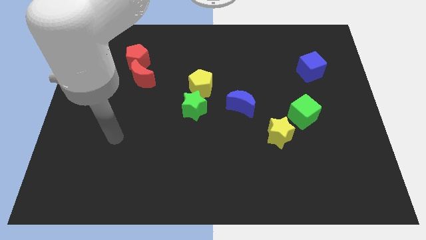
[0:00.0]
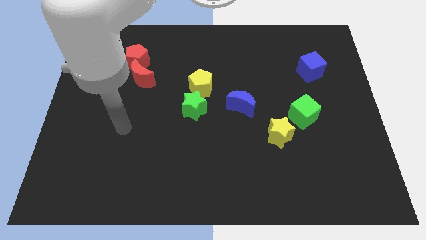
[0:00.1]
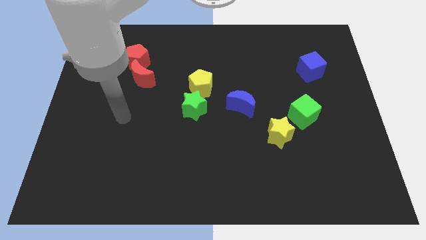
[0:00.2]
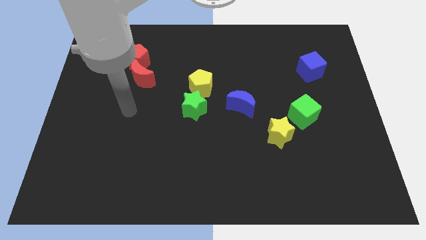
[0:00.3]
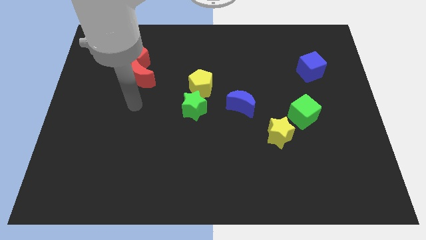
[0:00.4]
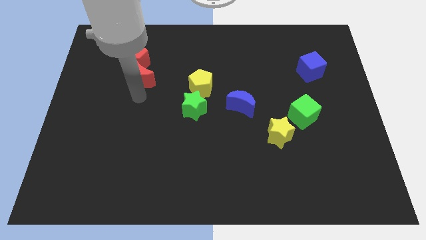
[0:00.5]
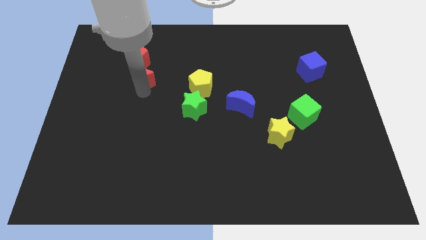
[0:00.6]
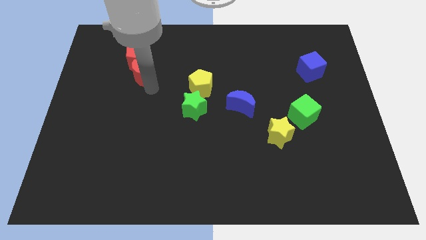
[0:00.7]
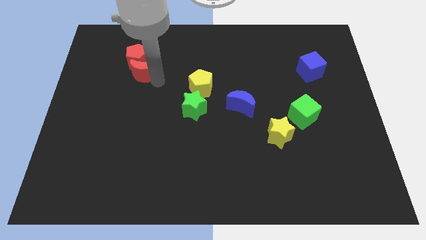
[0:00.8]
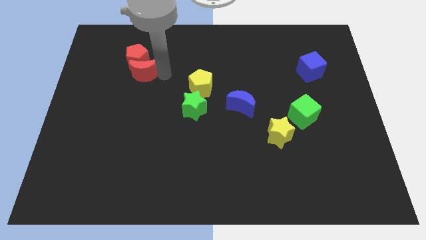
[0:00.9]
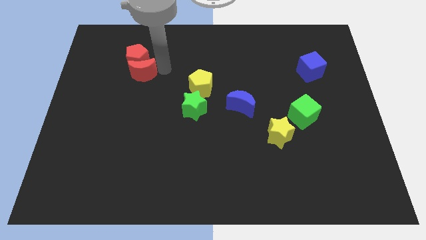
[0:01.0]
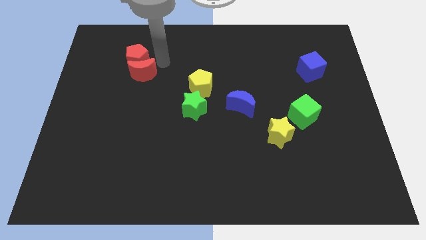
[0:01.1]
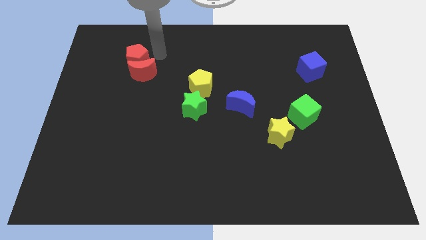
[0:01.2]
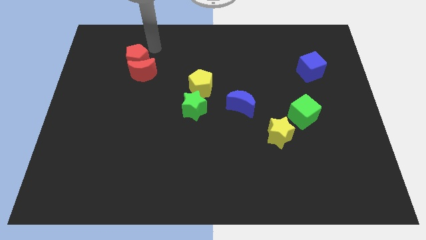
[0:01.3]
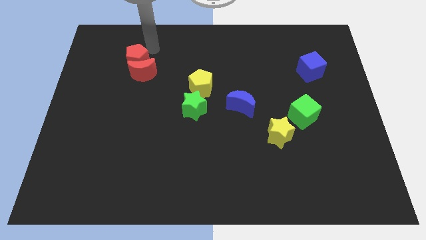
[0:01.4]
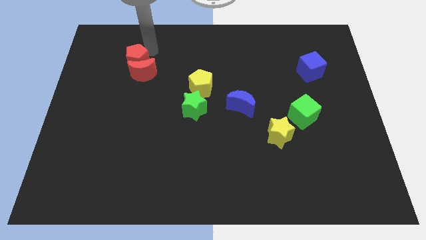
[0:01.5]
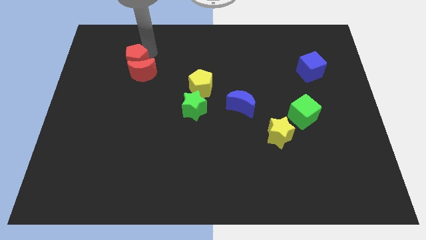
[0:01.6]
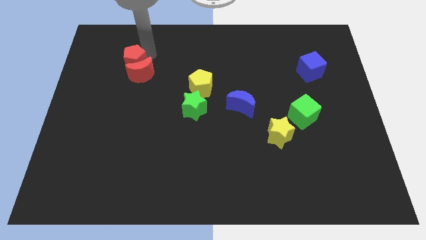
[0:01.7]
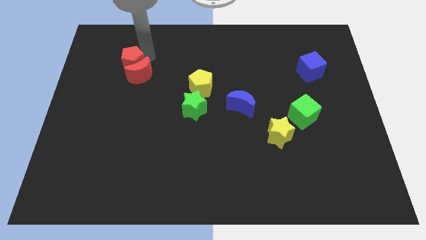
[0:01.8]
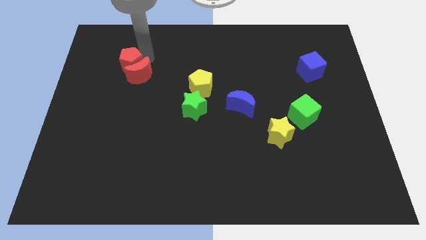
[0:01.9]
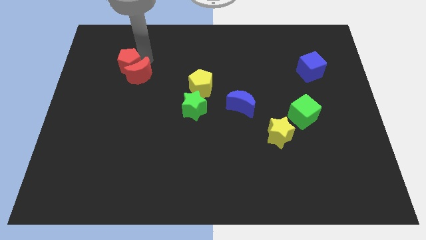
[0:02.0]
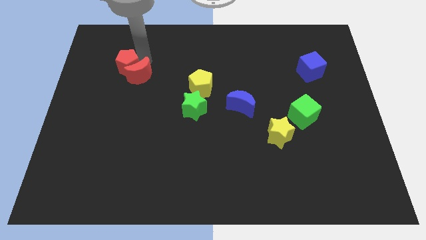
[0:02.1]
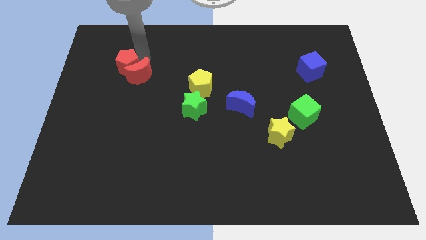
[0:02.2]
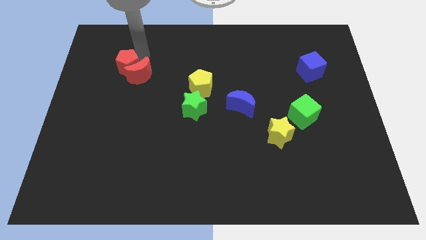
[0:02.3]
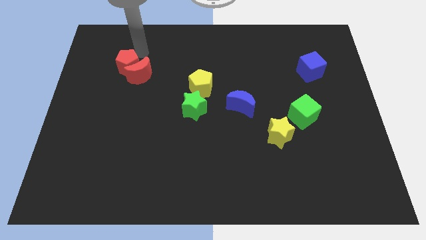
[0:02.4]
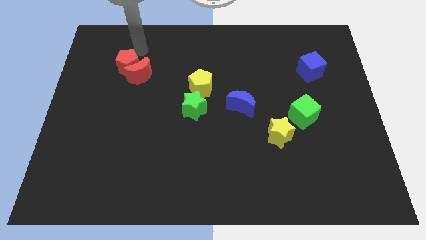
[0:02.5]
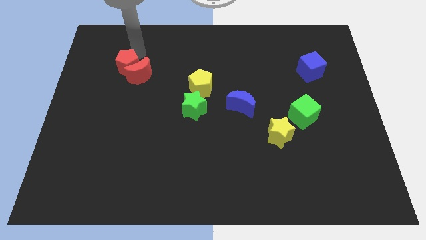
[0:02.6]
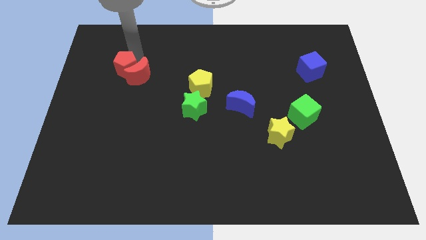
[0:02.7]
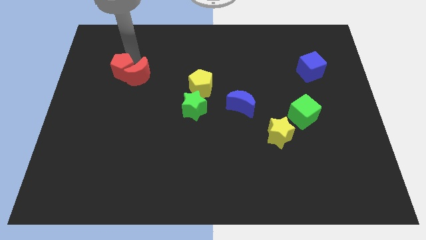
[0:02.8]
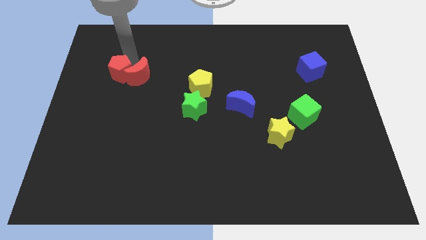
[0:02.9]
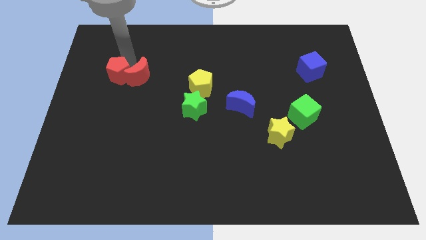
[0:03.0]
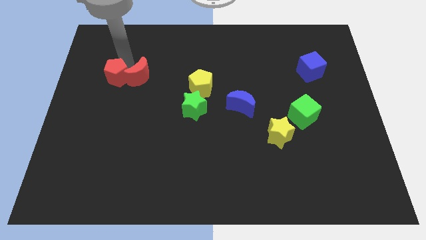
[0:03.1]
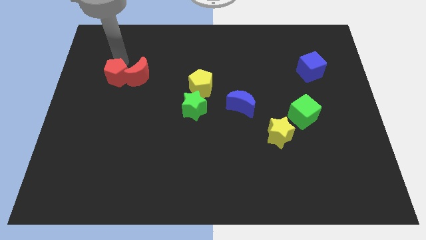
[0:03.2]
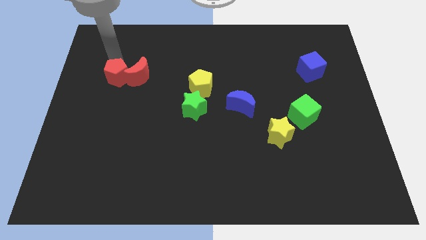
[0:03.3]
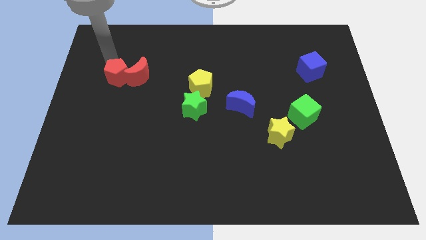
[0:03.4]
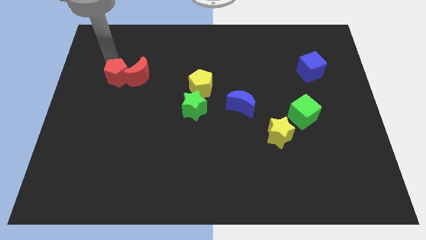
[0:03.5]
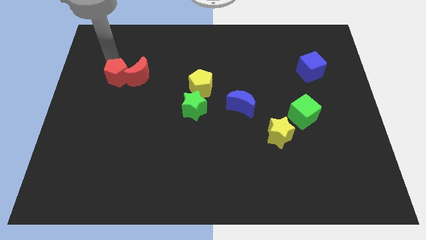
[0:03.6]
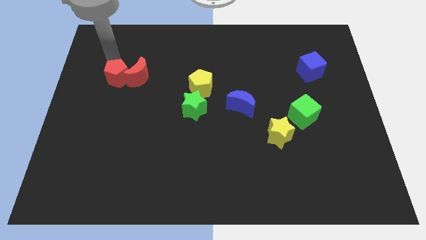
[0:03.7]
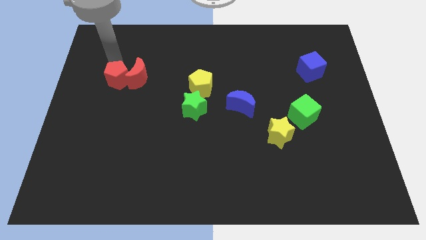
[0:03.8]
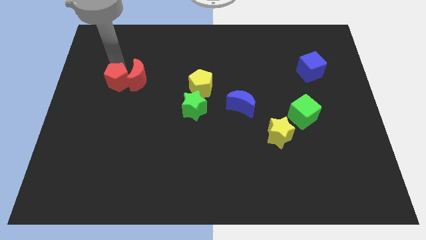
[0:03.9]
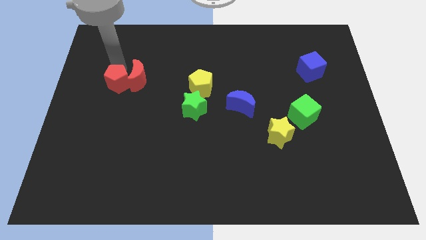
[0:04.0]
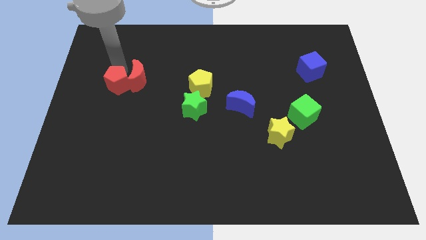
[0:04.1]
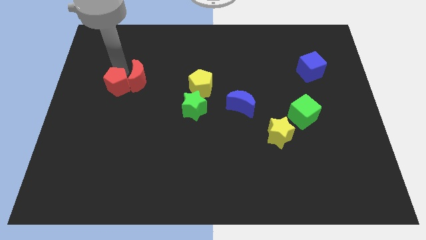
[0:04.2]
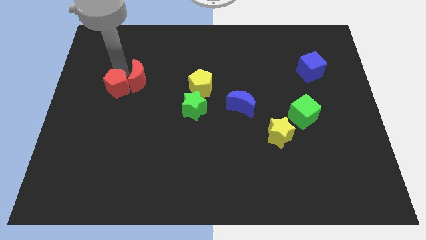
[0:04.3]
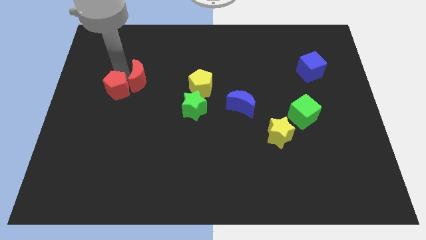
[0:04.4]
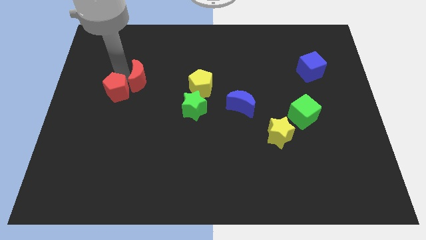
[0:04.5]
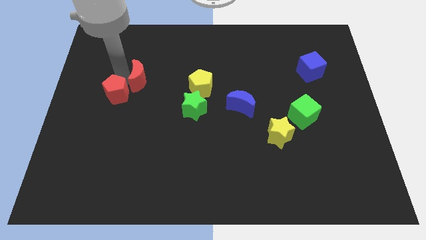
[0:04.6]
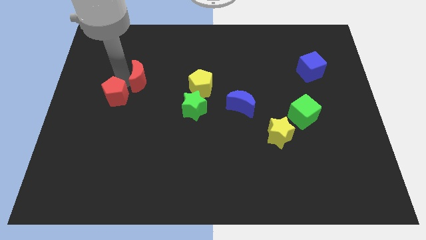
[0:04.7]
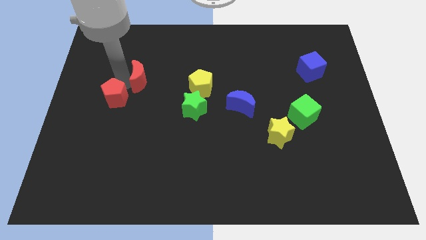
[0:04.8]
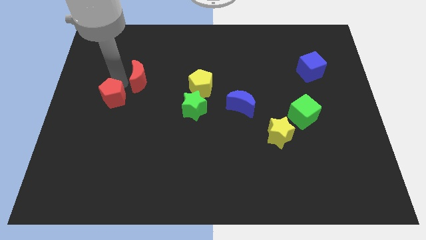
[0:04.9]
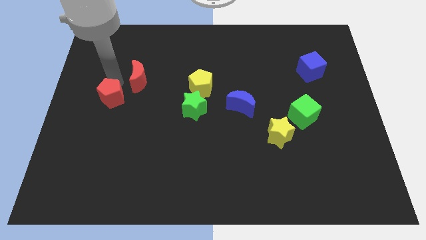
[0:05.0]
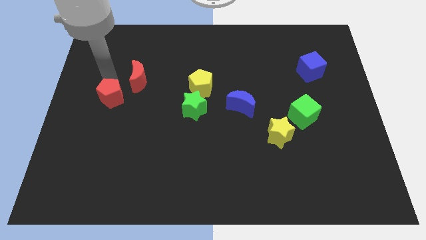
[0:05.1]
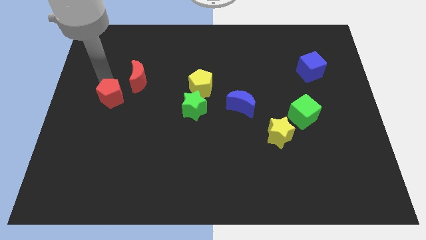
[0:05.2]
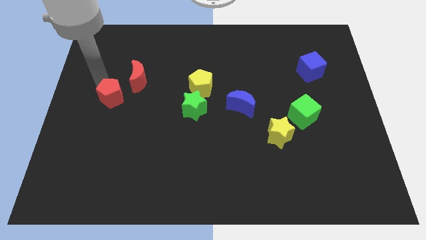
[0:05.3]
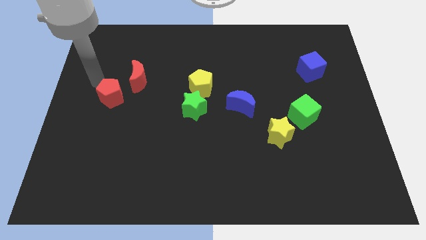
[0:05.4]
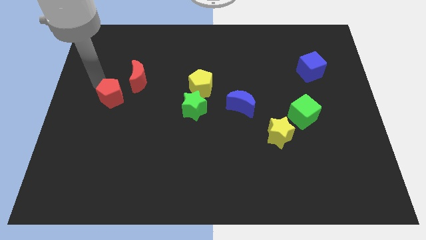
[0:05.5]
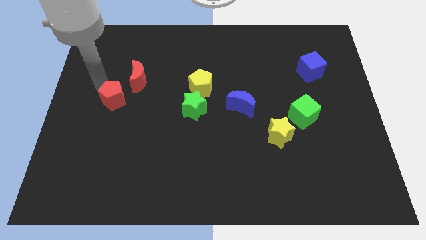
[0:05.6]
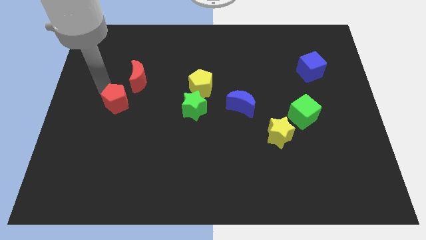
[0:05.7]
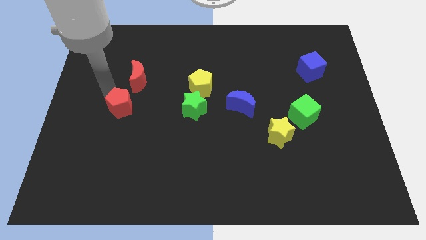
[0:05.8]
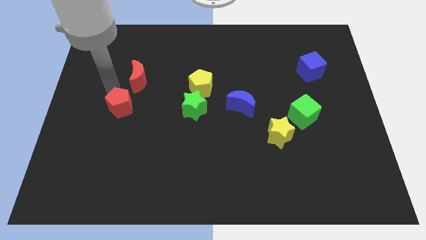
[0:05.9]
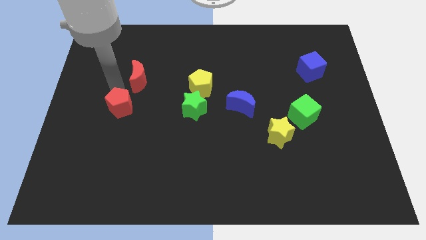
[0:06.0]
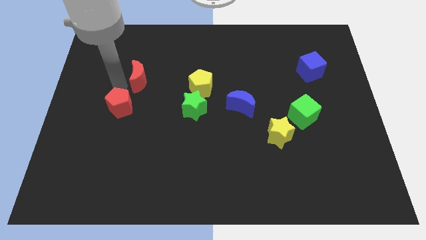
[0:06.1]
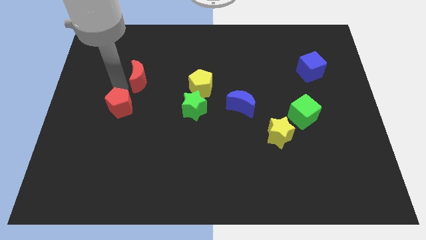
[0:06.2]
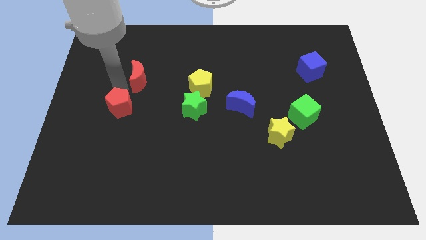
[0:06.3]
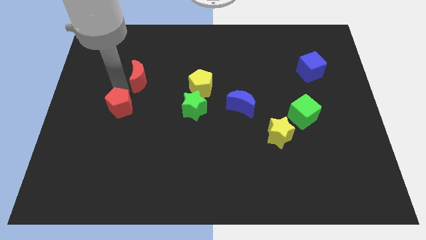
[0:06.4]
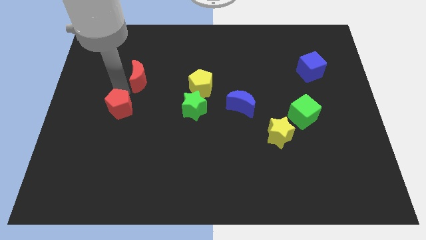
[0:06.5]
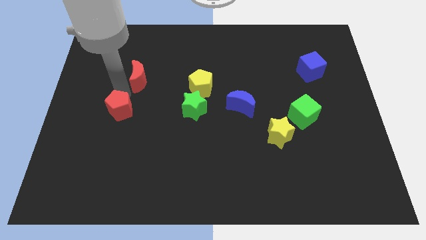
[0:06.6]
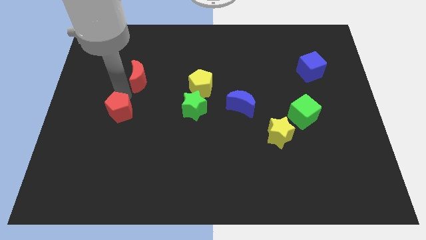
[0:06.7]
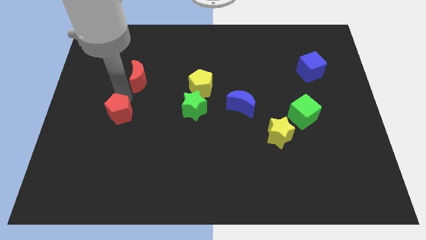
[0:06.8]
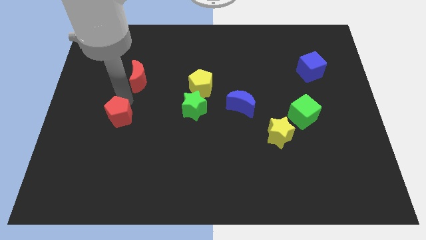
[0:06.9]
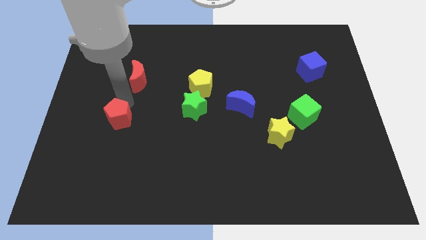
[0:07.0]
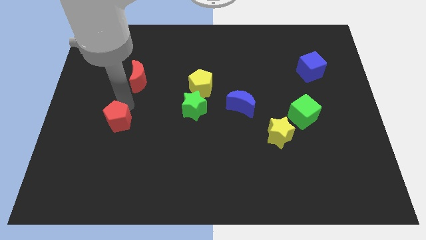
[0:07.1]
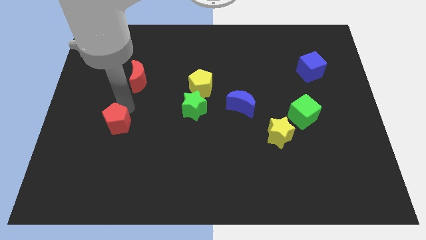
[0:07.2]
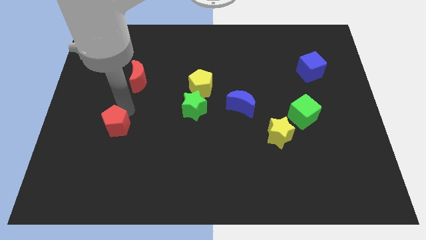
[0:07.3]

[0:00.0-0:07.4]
push the red pentagon down

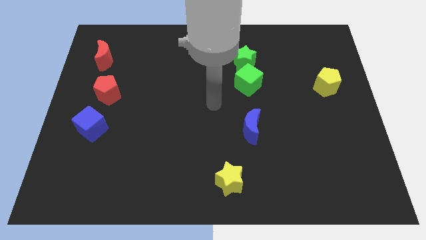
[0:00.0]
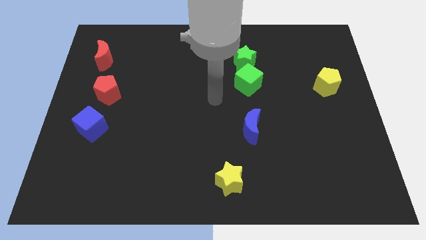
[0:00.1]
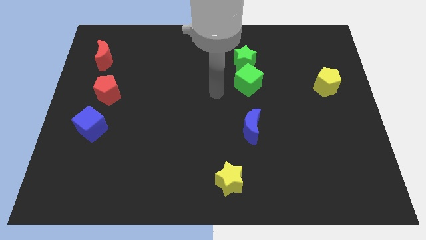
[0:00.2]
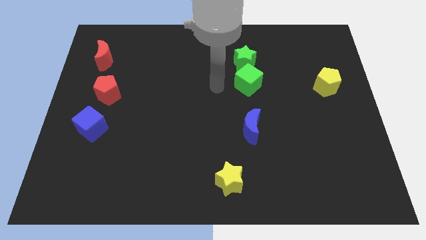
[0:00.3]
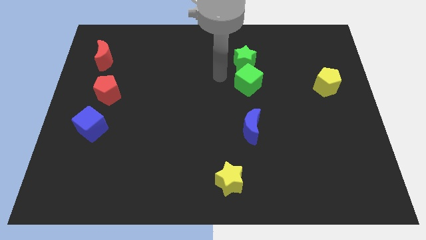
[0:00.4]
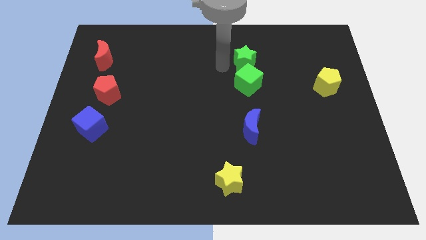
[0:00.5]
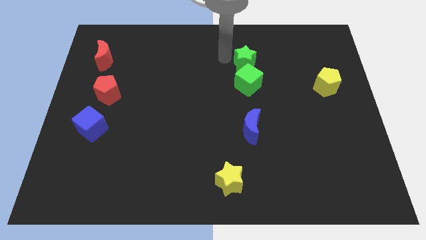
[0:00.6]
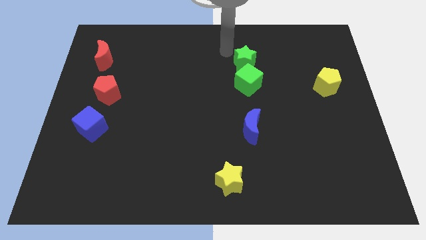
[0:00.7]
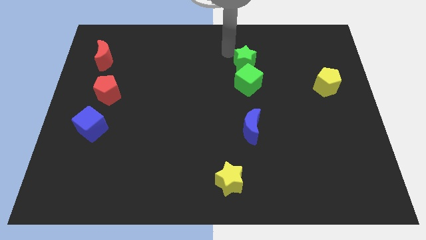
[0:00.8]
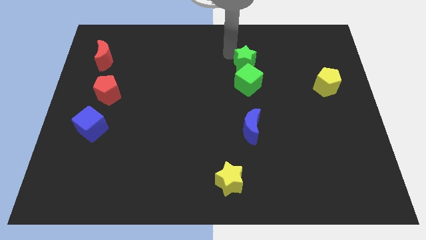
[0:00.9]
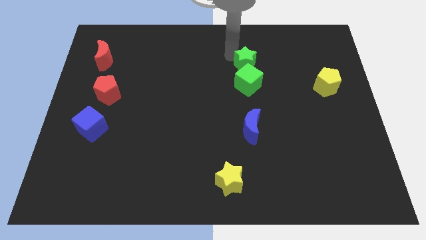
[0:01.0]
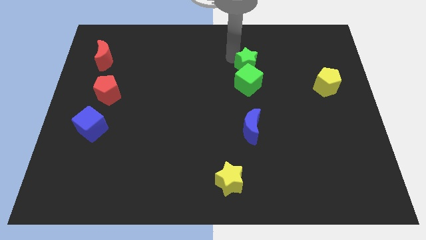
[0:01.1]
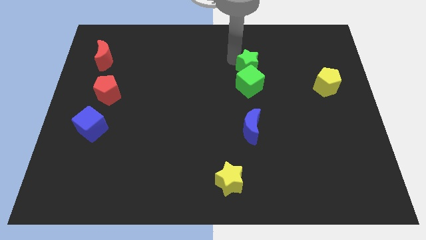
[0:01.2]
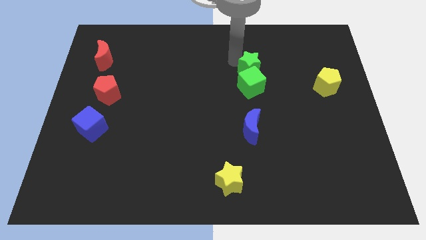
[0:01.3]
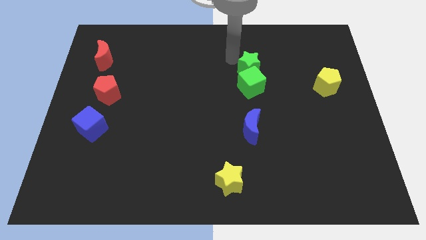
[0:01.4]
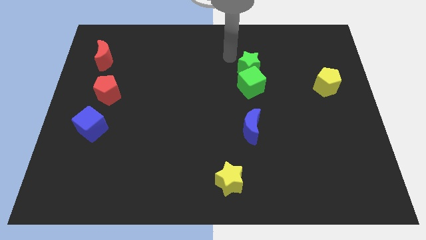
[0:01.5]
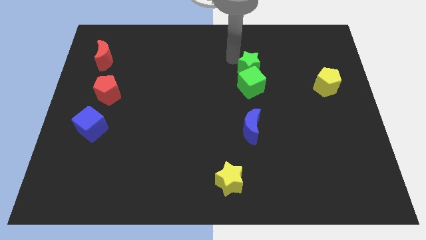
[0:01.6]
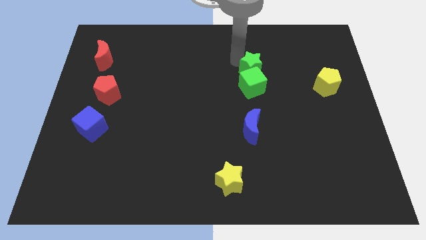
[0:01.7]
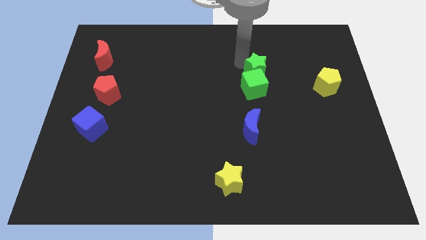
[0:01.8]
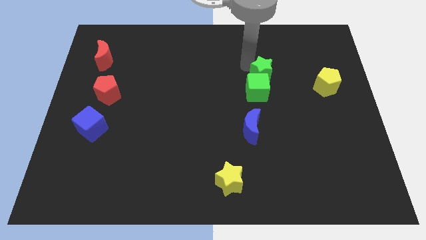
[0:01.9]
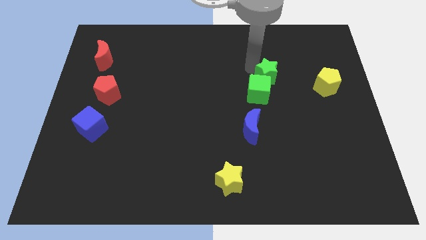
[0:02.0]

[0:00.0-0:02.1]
slide the green star slightly downwards and then right
